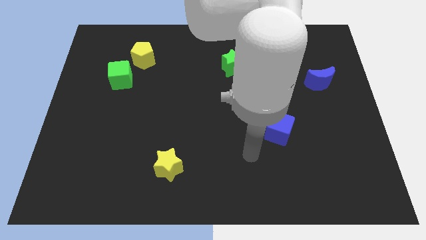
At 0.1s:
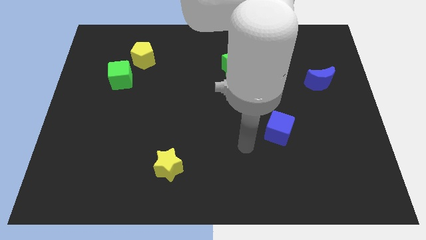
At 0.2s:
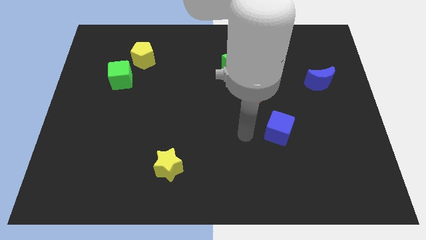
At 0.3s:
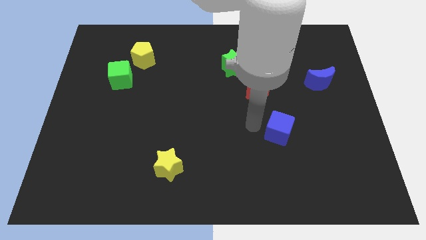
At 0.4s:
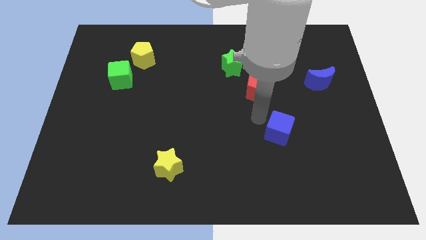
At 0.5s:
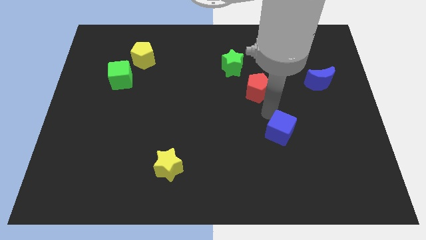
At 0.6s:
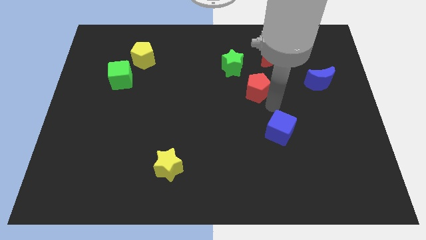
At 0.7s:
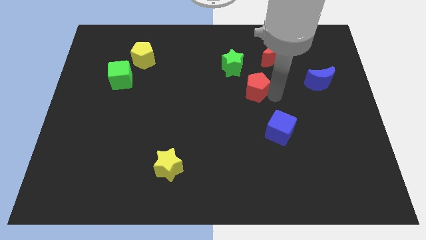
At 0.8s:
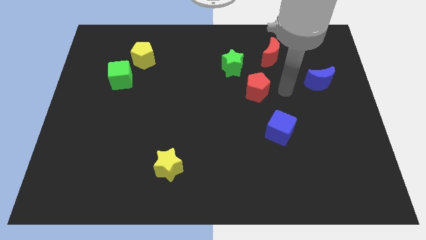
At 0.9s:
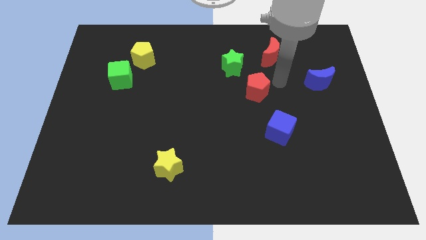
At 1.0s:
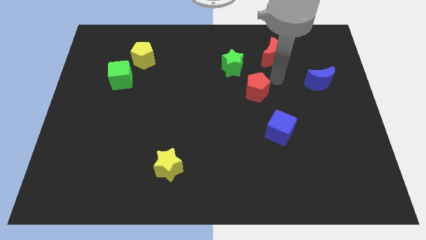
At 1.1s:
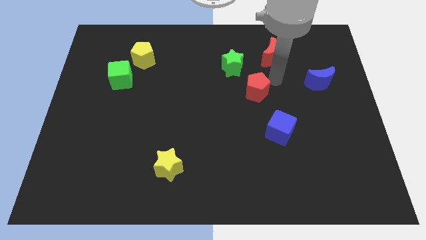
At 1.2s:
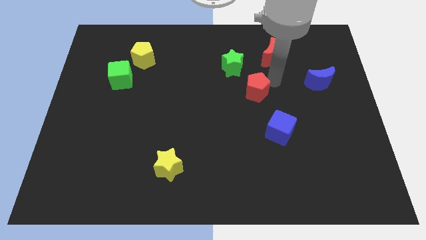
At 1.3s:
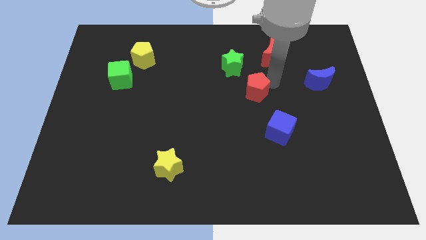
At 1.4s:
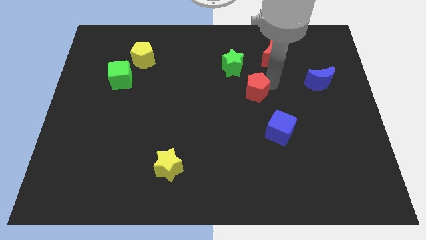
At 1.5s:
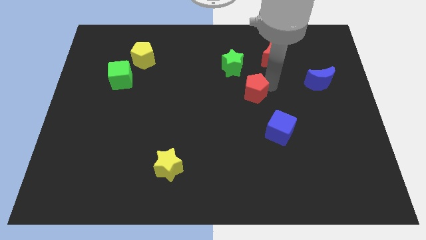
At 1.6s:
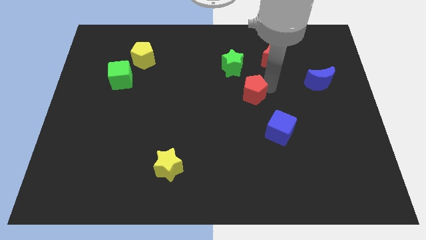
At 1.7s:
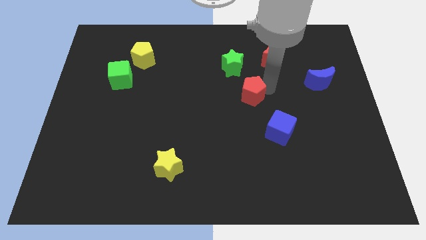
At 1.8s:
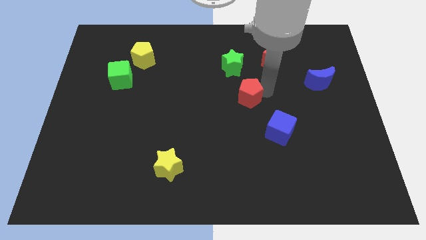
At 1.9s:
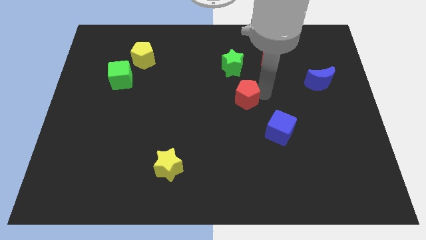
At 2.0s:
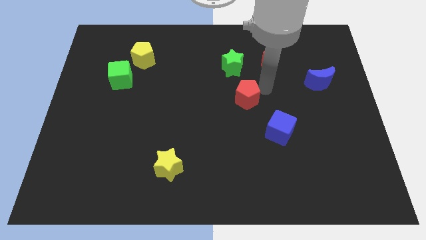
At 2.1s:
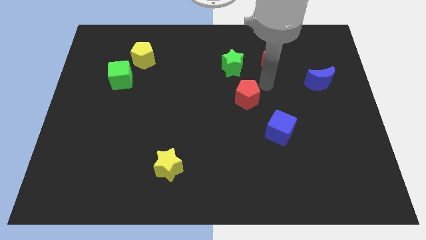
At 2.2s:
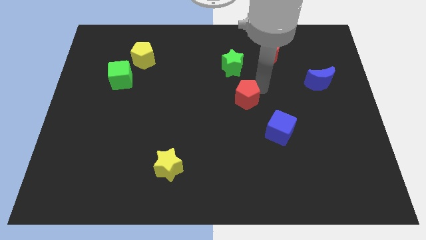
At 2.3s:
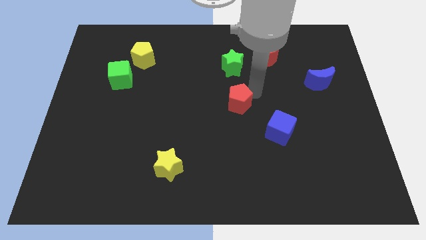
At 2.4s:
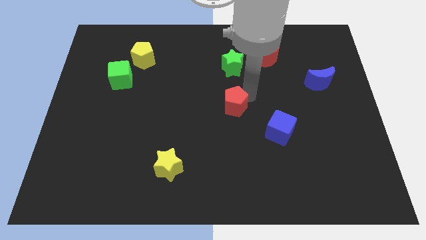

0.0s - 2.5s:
push the red pentagon down and left diagonally a bit

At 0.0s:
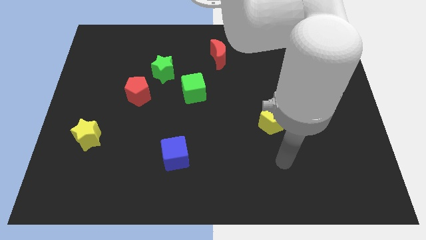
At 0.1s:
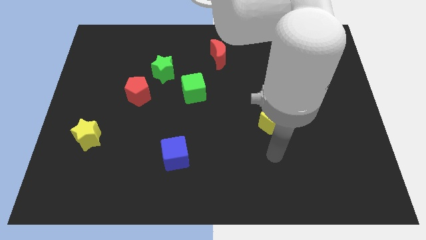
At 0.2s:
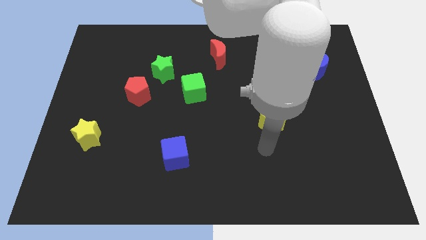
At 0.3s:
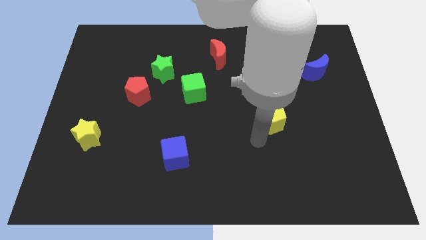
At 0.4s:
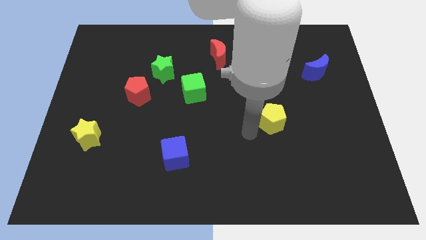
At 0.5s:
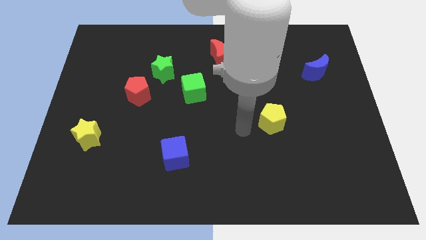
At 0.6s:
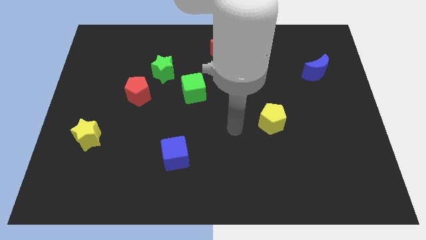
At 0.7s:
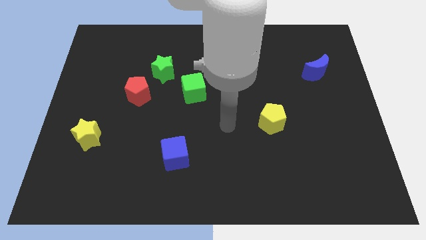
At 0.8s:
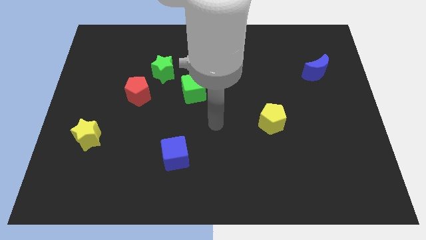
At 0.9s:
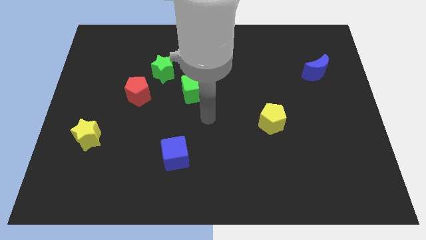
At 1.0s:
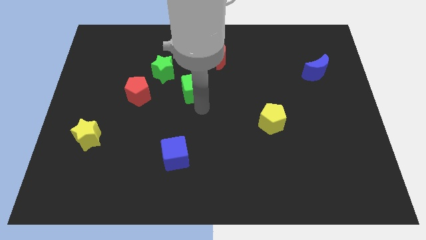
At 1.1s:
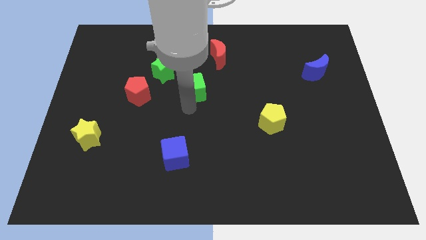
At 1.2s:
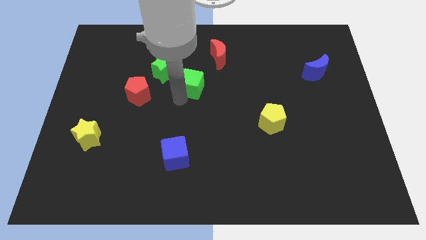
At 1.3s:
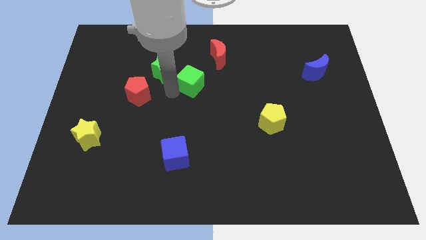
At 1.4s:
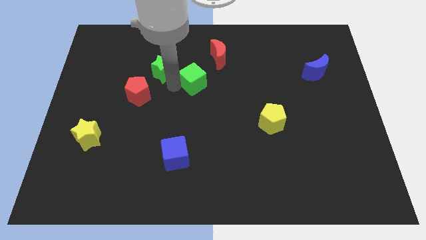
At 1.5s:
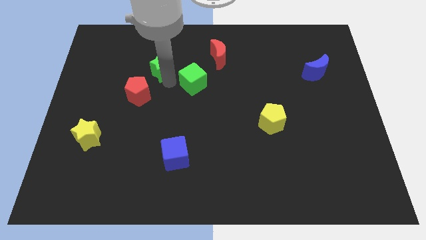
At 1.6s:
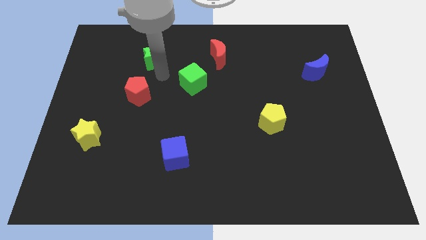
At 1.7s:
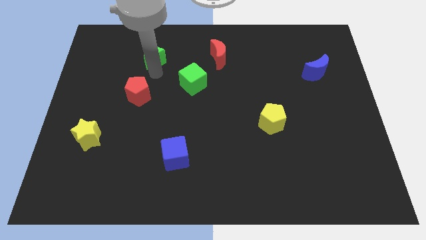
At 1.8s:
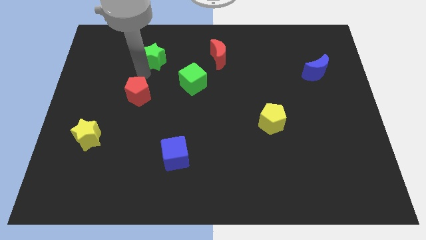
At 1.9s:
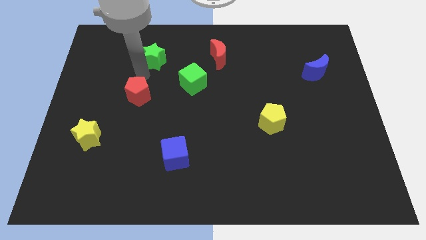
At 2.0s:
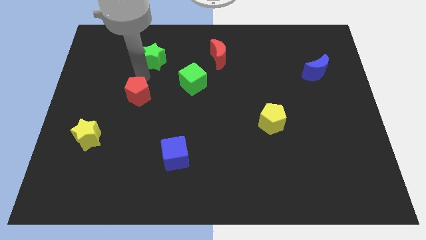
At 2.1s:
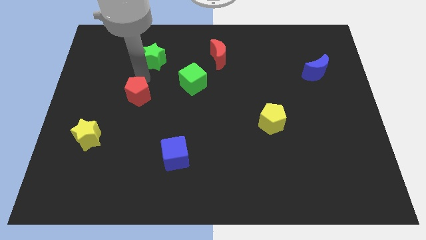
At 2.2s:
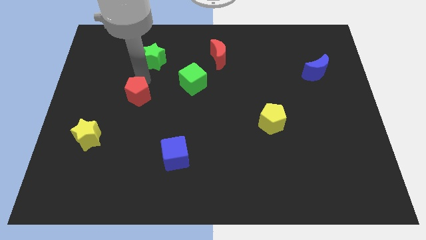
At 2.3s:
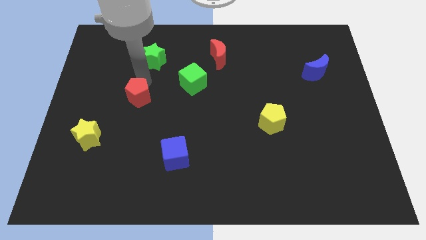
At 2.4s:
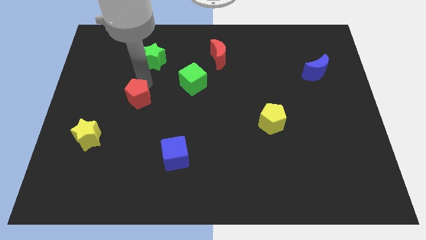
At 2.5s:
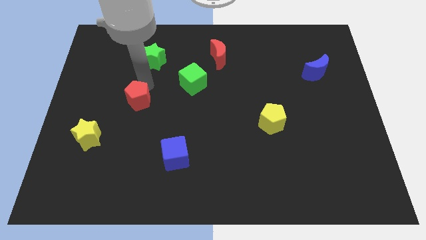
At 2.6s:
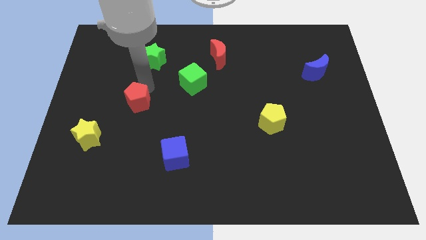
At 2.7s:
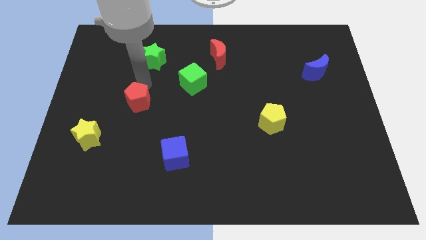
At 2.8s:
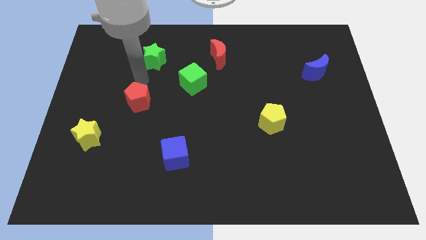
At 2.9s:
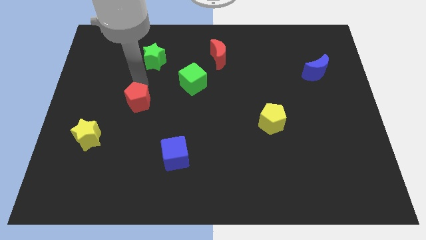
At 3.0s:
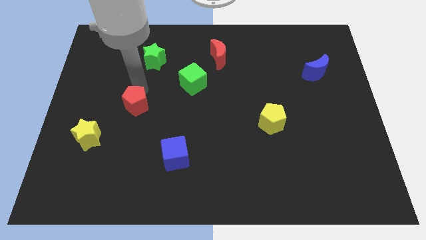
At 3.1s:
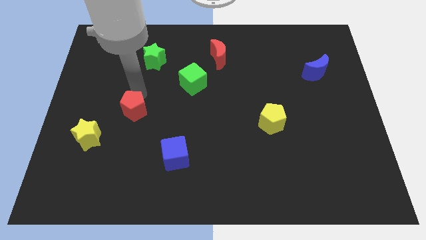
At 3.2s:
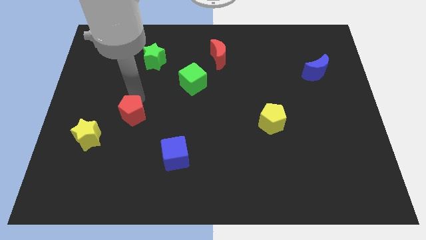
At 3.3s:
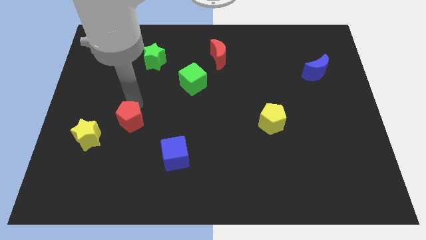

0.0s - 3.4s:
move the red pentagon down a bit

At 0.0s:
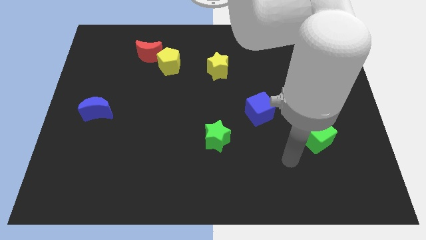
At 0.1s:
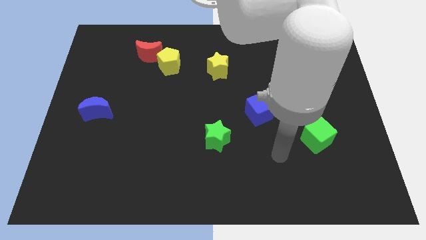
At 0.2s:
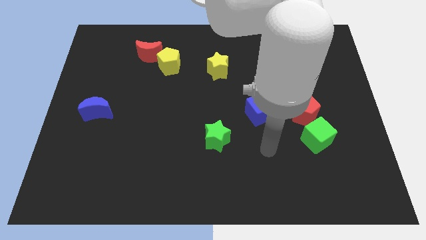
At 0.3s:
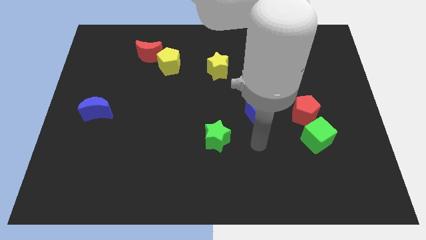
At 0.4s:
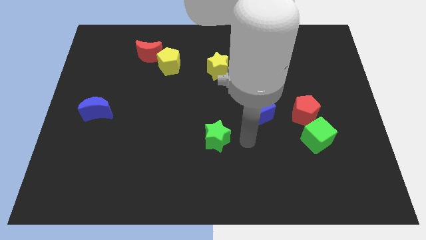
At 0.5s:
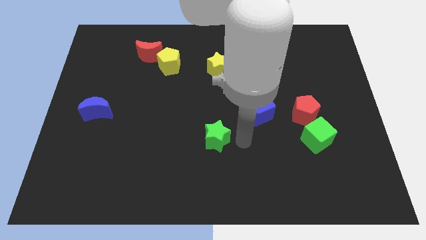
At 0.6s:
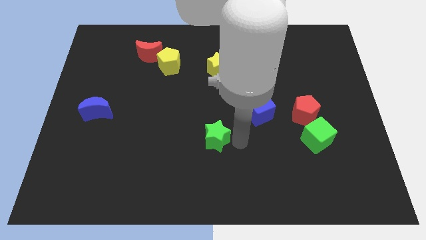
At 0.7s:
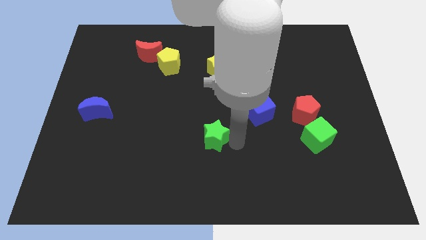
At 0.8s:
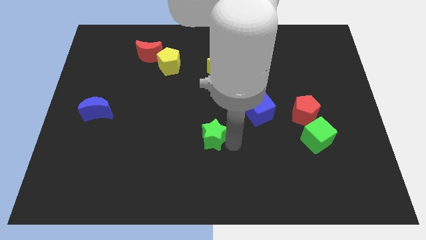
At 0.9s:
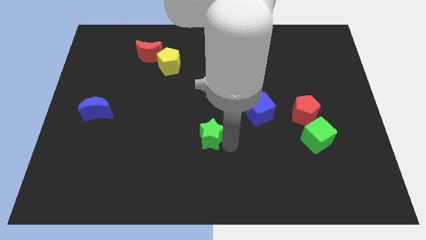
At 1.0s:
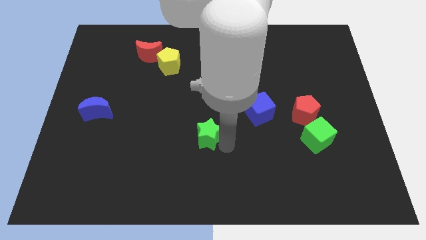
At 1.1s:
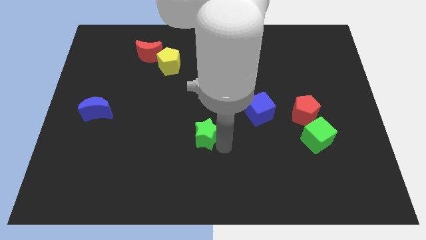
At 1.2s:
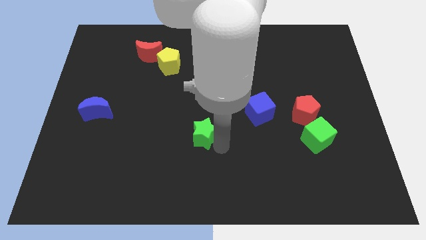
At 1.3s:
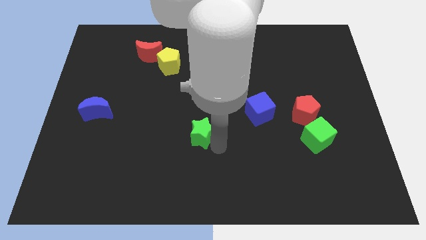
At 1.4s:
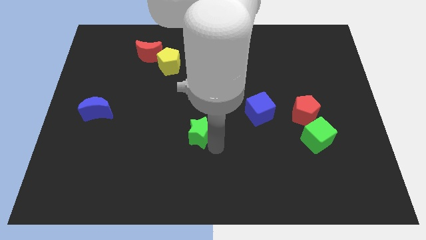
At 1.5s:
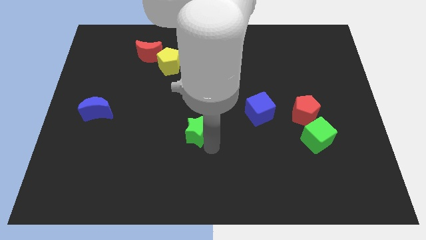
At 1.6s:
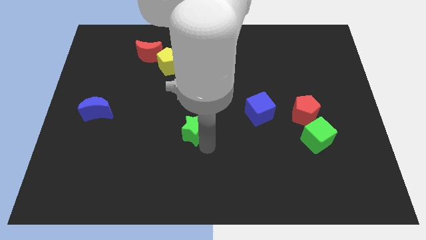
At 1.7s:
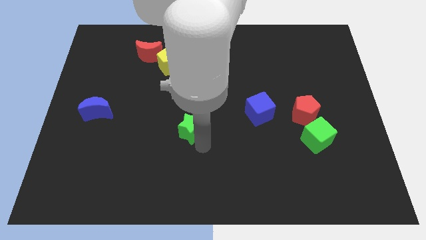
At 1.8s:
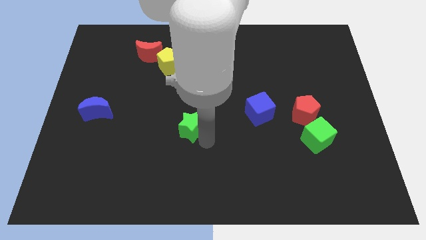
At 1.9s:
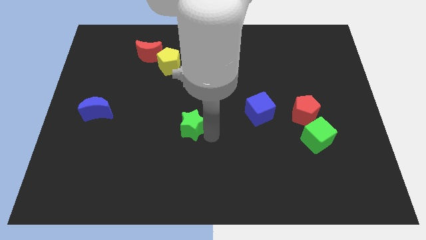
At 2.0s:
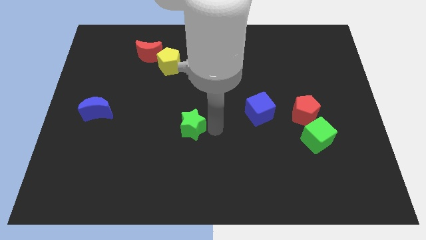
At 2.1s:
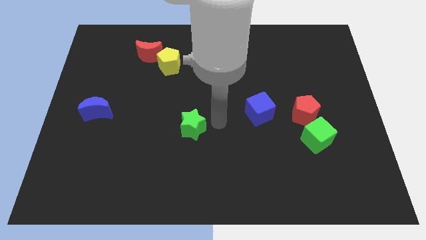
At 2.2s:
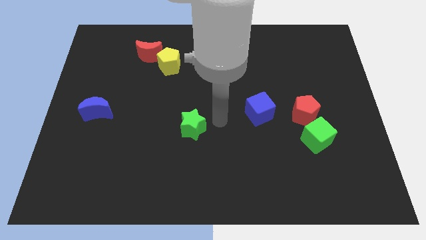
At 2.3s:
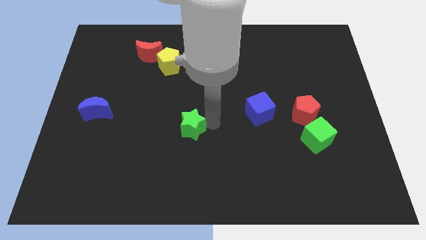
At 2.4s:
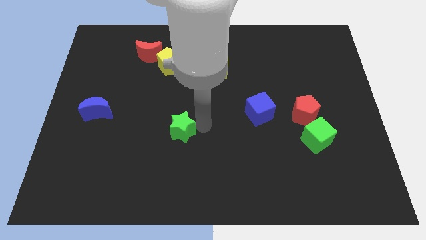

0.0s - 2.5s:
slide the green star a little bit left

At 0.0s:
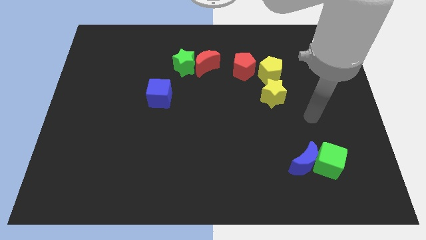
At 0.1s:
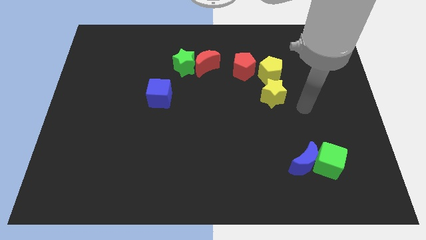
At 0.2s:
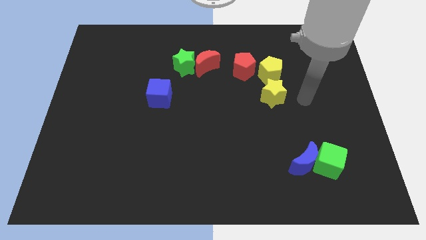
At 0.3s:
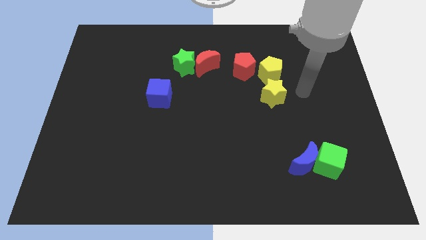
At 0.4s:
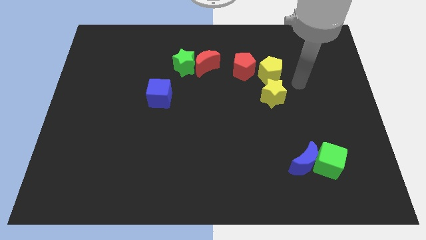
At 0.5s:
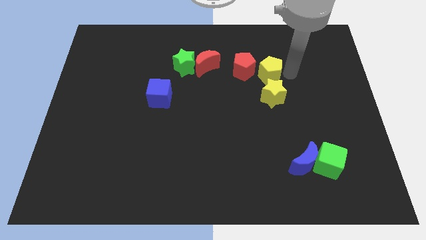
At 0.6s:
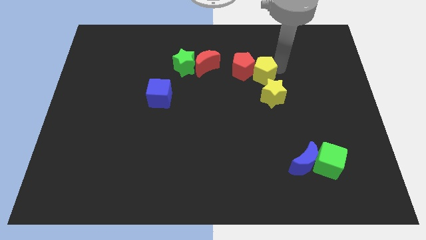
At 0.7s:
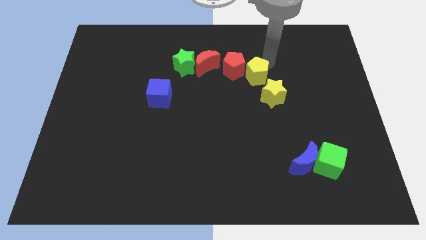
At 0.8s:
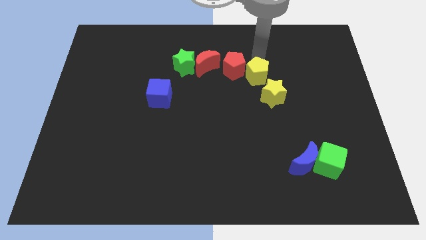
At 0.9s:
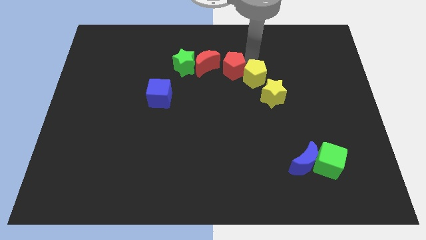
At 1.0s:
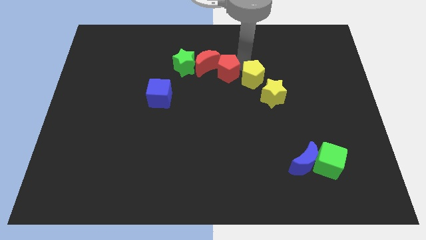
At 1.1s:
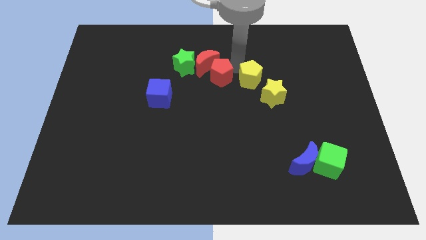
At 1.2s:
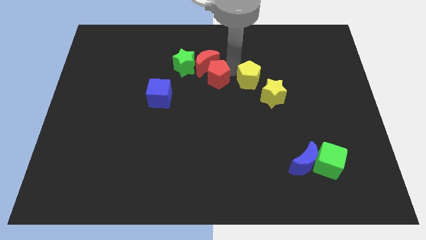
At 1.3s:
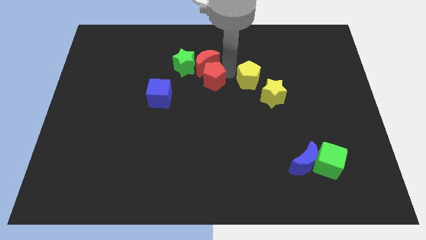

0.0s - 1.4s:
push the red pentagon left a bit
